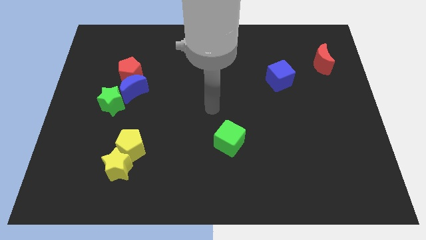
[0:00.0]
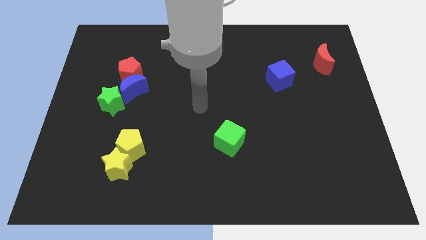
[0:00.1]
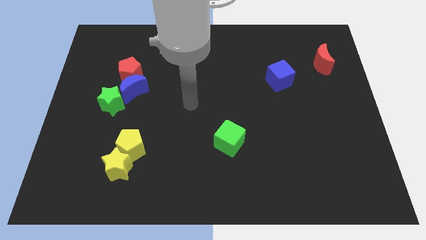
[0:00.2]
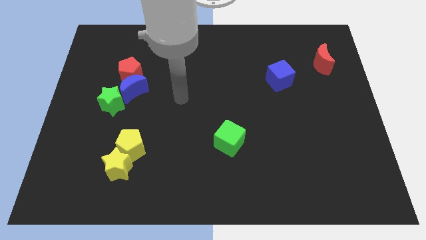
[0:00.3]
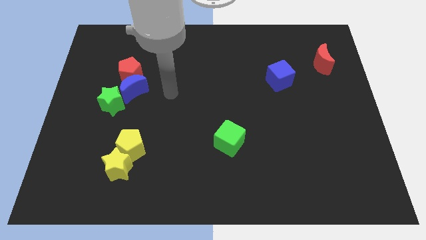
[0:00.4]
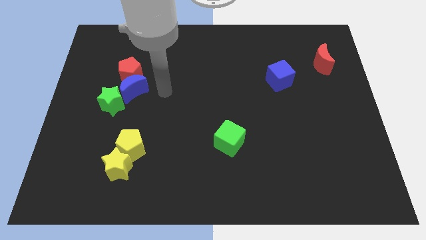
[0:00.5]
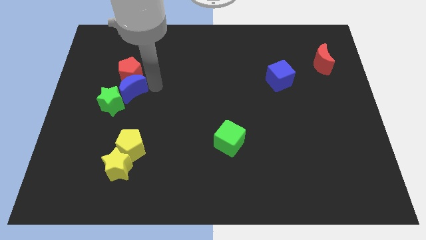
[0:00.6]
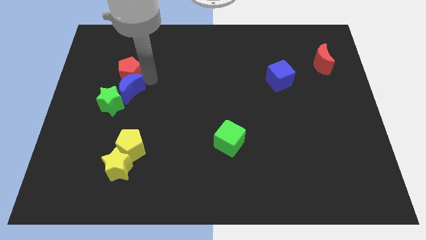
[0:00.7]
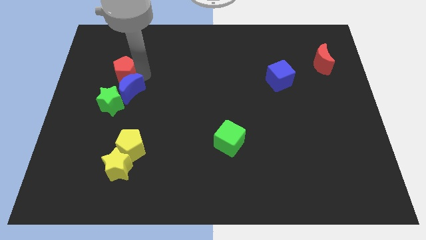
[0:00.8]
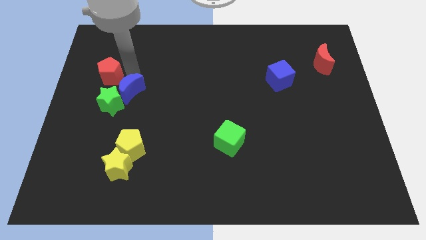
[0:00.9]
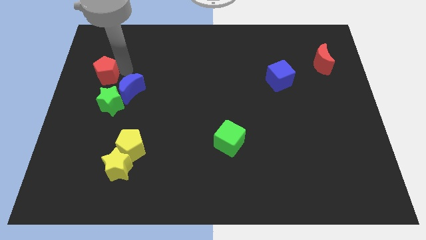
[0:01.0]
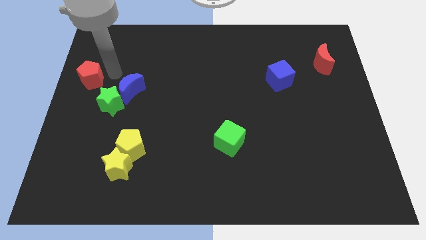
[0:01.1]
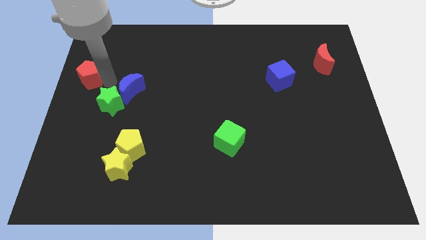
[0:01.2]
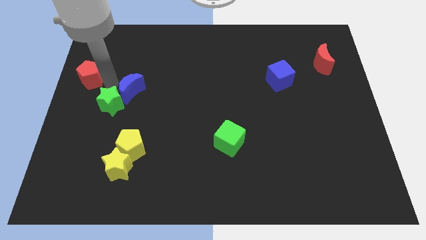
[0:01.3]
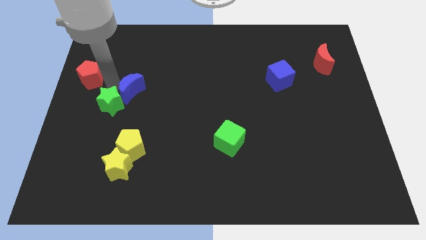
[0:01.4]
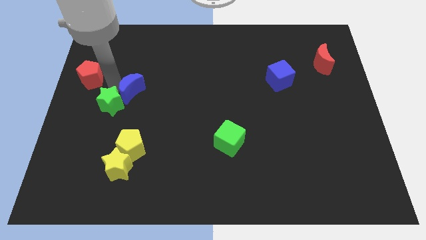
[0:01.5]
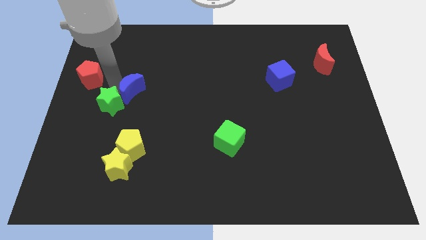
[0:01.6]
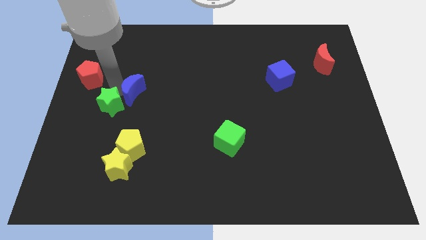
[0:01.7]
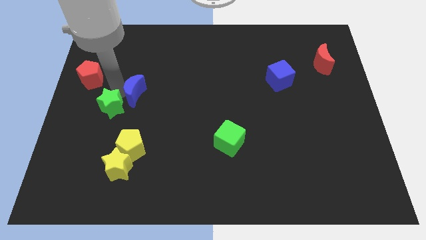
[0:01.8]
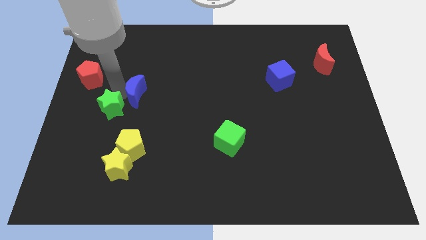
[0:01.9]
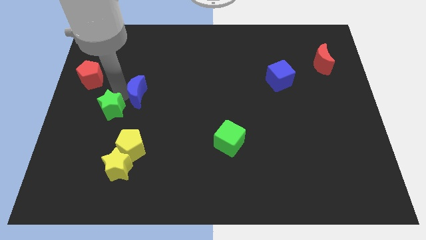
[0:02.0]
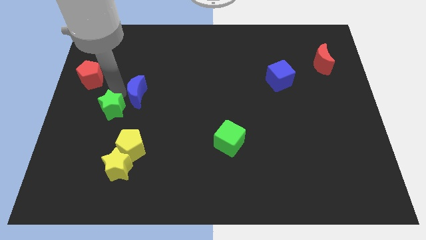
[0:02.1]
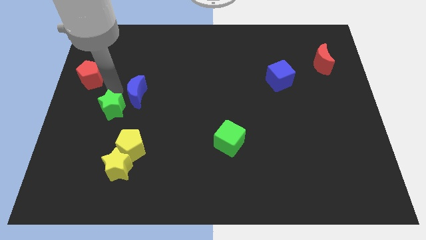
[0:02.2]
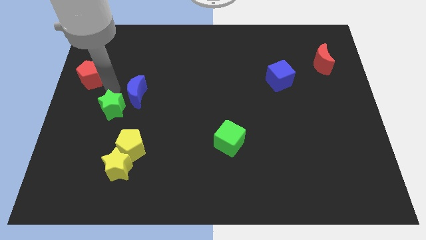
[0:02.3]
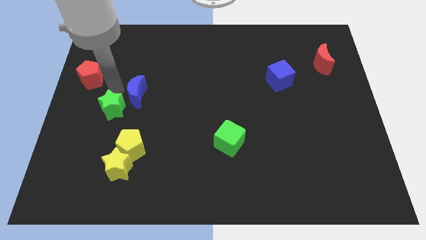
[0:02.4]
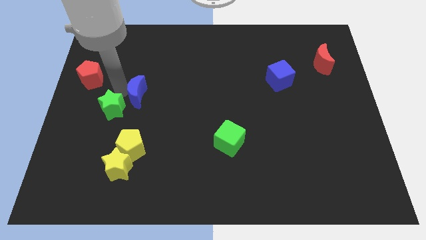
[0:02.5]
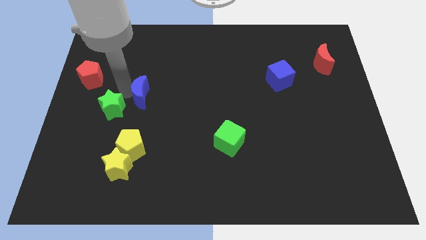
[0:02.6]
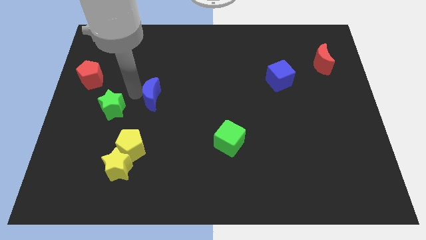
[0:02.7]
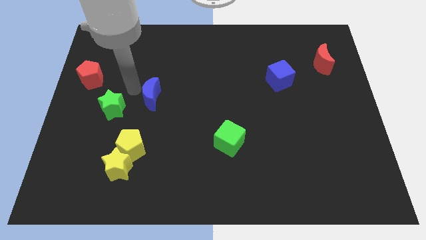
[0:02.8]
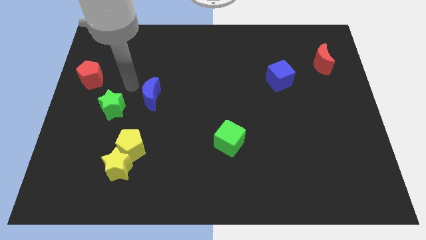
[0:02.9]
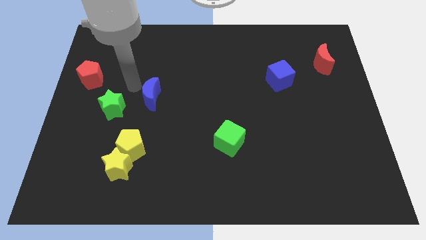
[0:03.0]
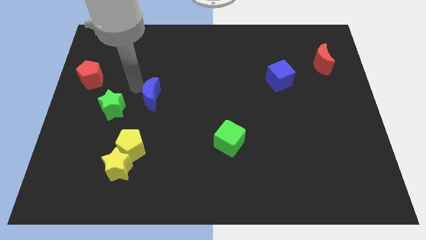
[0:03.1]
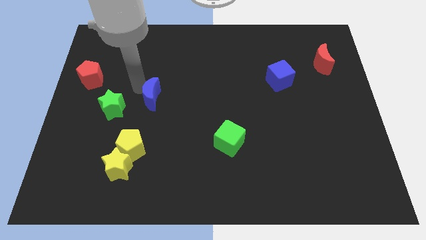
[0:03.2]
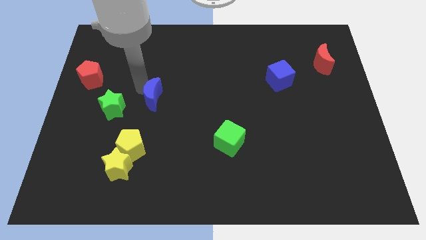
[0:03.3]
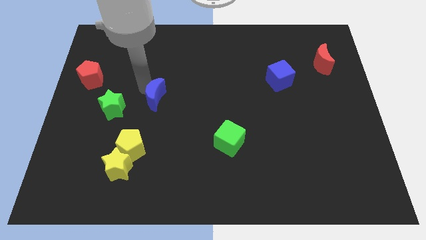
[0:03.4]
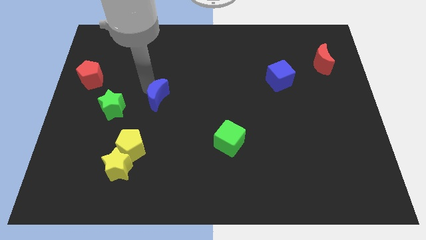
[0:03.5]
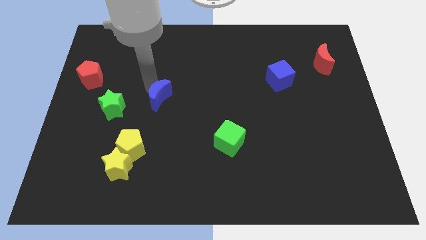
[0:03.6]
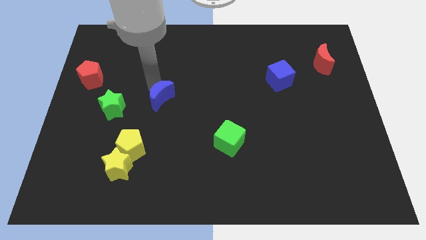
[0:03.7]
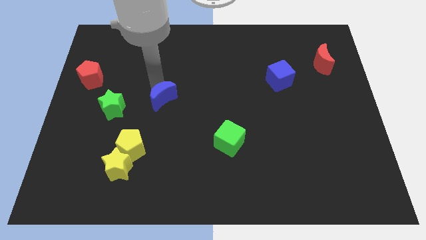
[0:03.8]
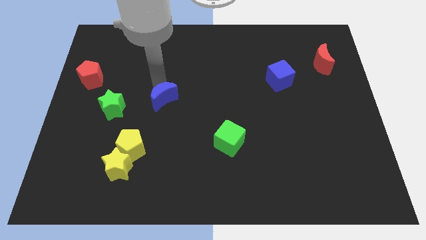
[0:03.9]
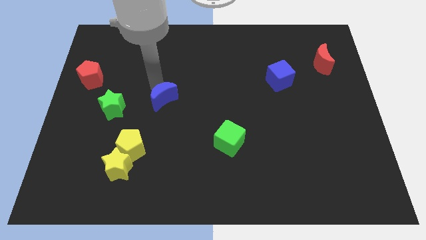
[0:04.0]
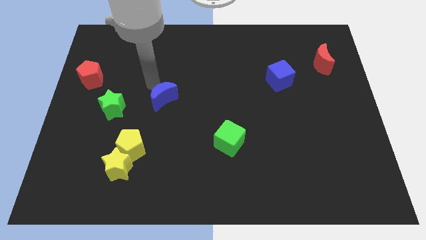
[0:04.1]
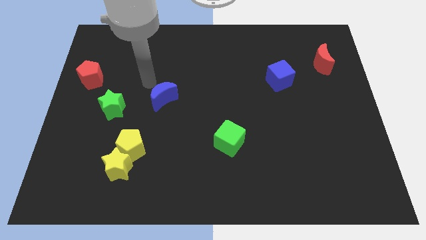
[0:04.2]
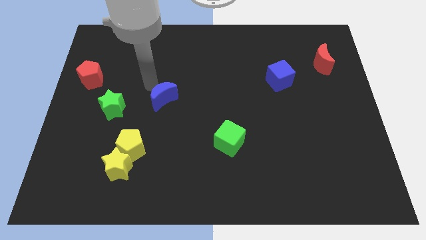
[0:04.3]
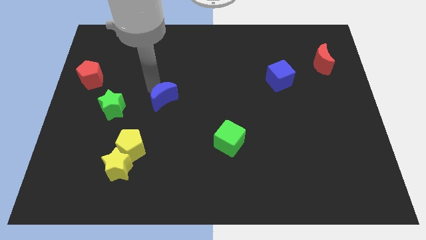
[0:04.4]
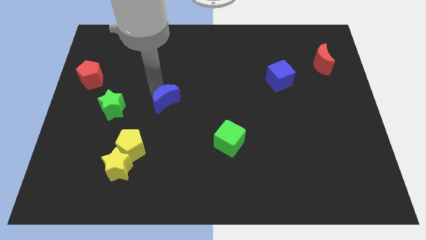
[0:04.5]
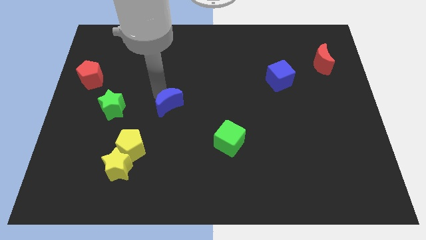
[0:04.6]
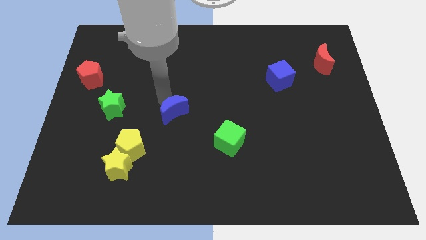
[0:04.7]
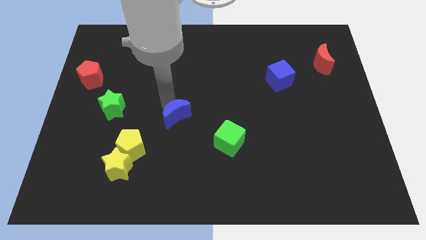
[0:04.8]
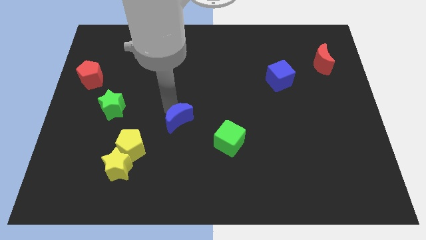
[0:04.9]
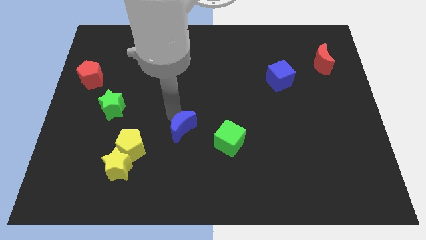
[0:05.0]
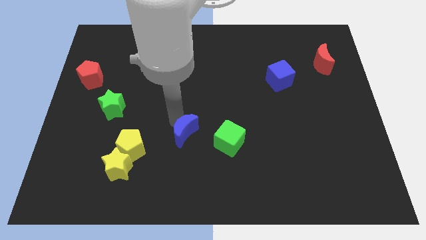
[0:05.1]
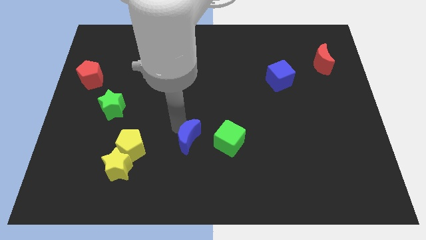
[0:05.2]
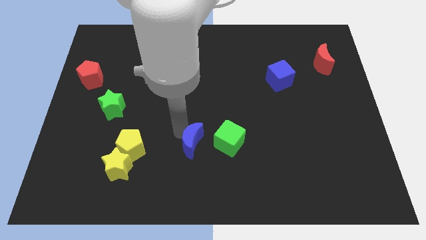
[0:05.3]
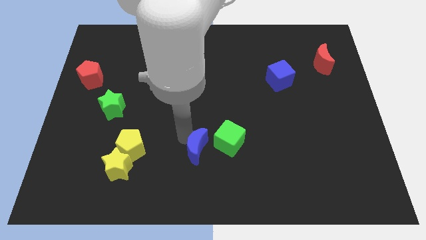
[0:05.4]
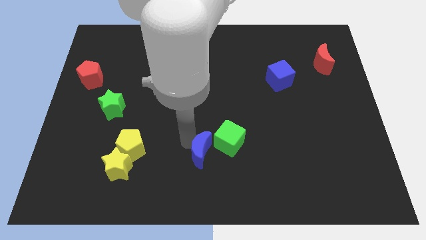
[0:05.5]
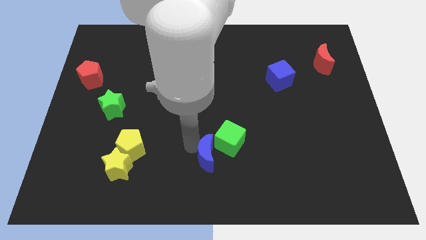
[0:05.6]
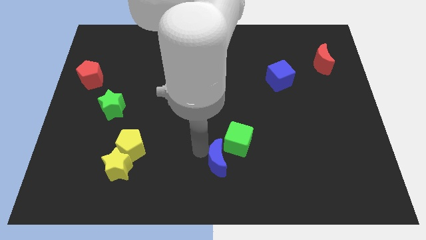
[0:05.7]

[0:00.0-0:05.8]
push the blue moon to the bottom of the green cube

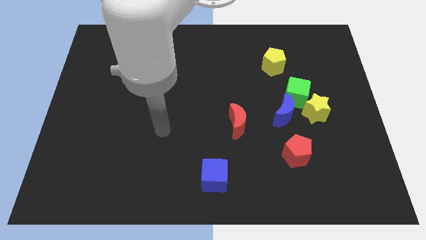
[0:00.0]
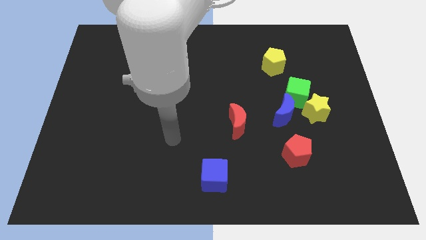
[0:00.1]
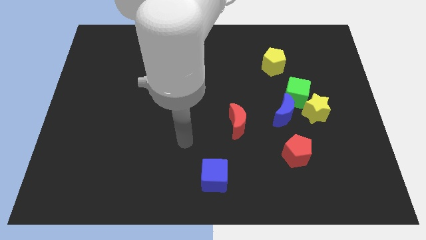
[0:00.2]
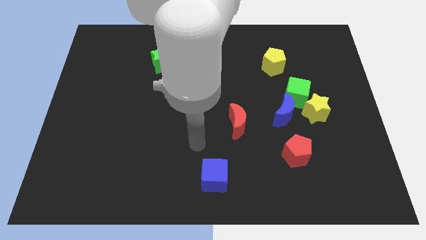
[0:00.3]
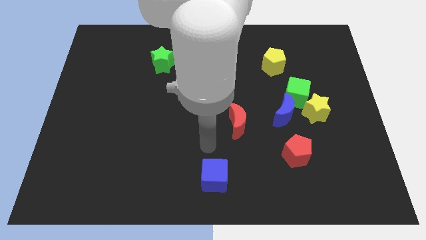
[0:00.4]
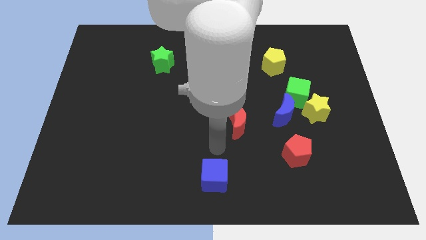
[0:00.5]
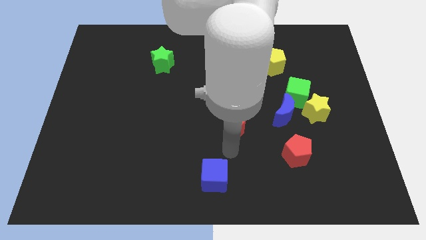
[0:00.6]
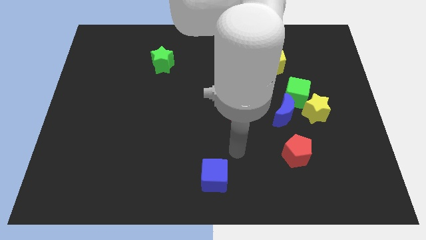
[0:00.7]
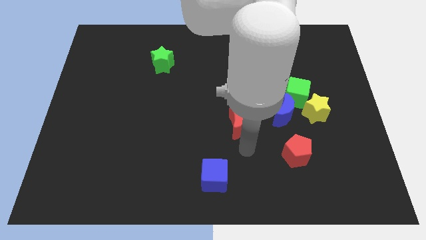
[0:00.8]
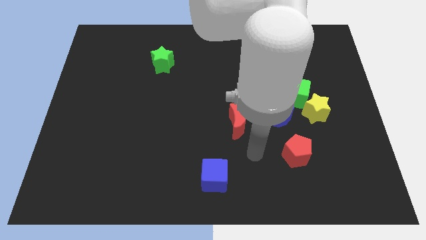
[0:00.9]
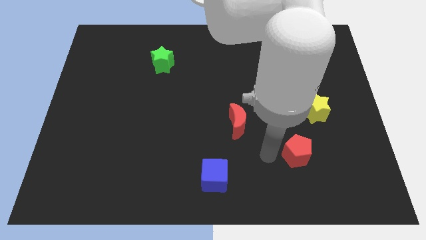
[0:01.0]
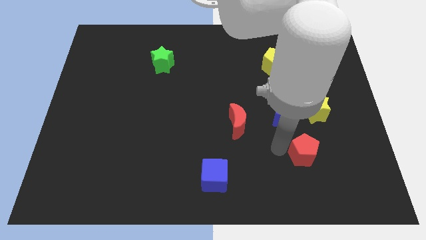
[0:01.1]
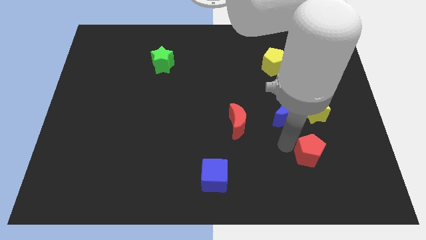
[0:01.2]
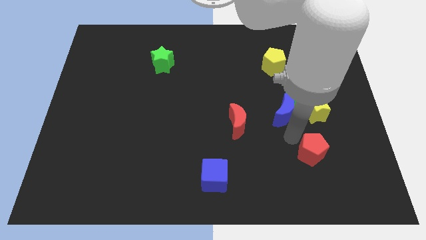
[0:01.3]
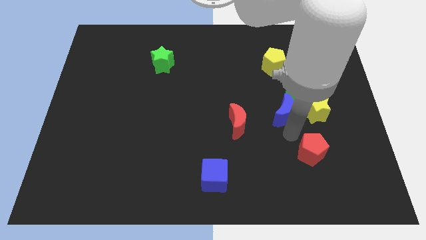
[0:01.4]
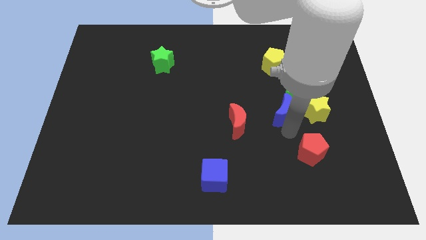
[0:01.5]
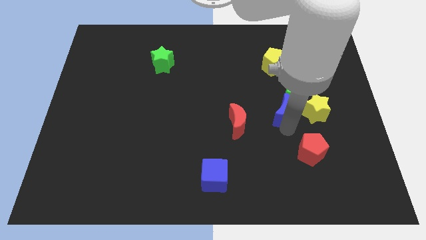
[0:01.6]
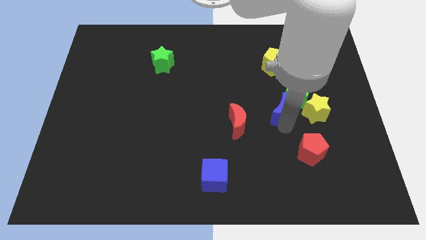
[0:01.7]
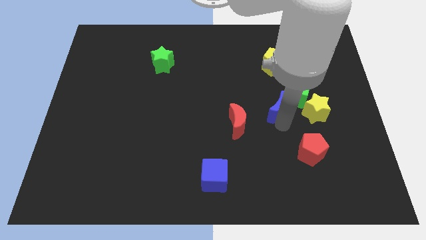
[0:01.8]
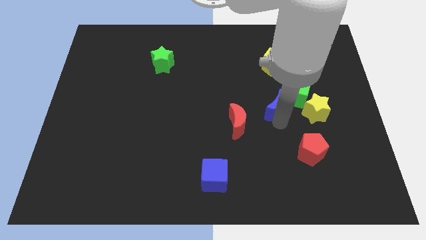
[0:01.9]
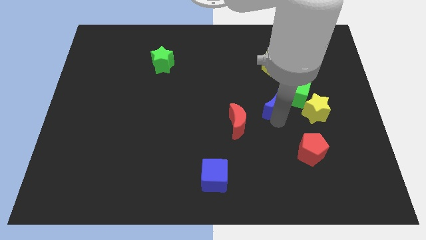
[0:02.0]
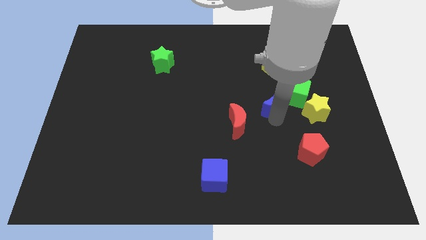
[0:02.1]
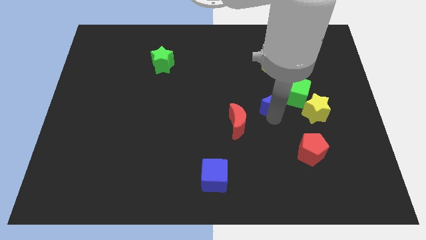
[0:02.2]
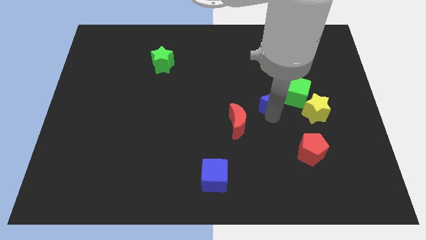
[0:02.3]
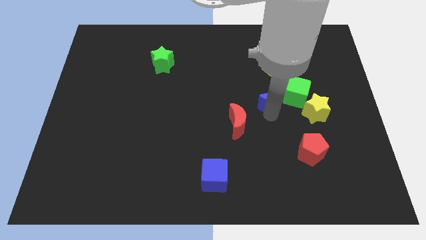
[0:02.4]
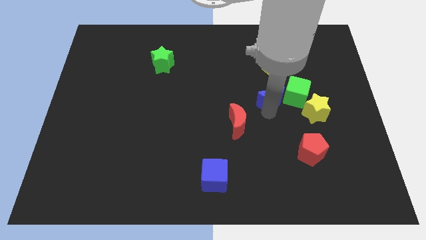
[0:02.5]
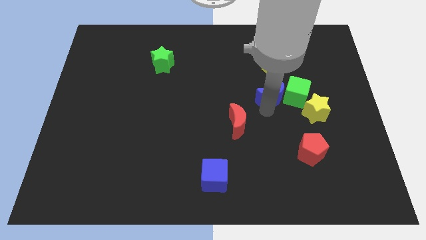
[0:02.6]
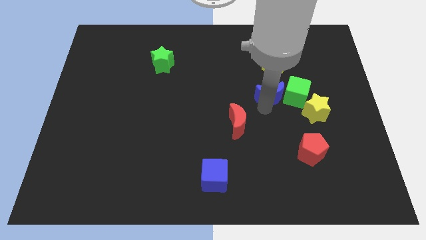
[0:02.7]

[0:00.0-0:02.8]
put the blue moon to the top left of the green cube
